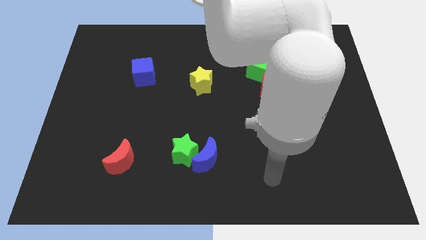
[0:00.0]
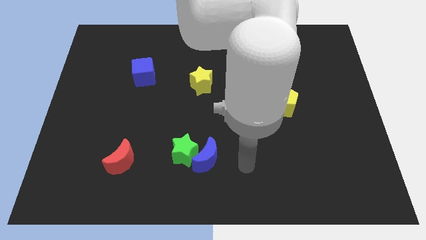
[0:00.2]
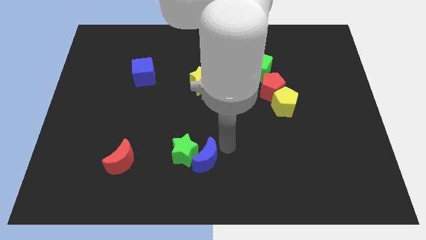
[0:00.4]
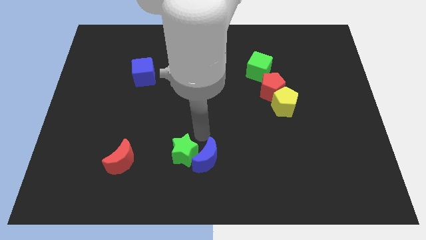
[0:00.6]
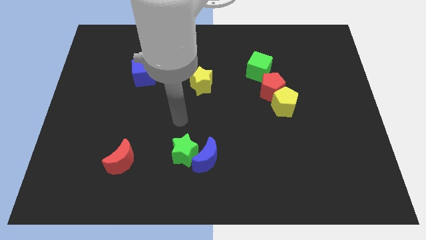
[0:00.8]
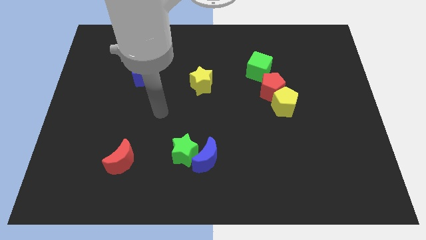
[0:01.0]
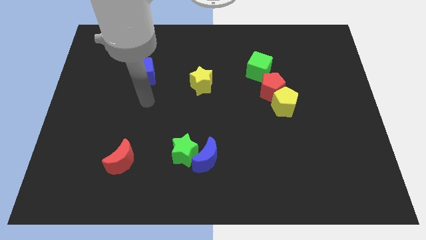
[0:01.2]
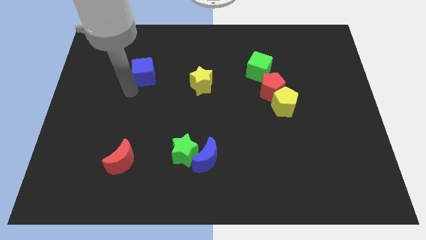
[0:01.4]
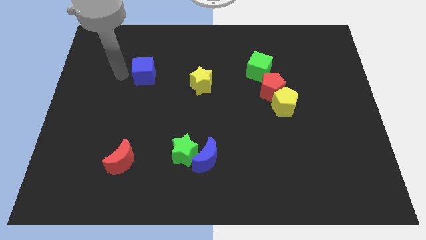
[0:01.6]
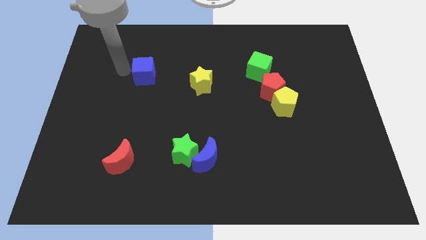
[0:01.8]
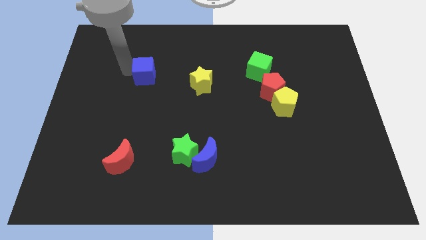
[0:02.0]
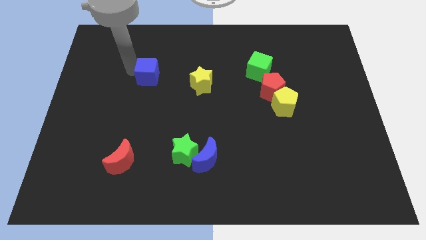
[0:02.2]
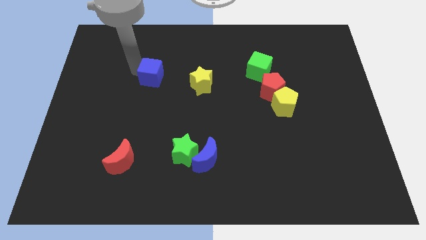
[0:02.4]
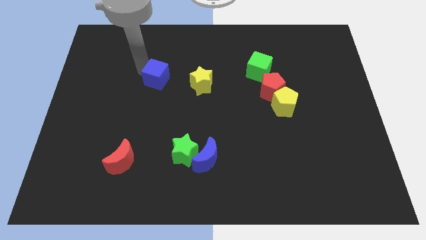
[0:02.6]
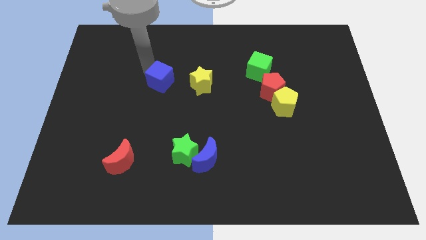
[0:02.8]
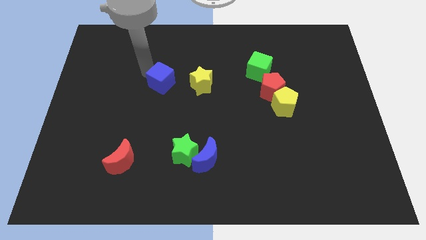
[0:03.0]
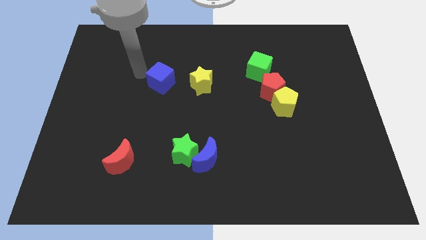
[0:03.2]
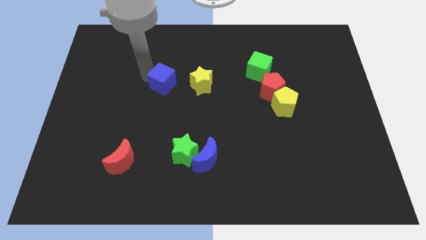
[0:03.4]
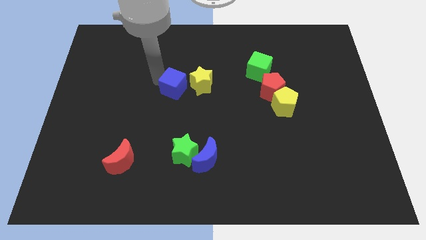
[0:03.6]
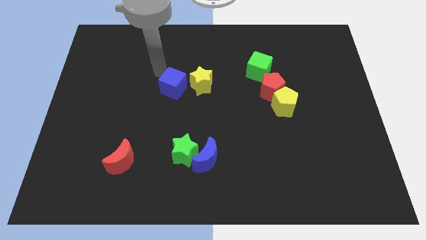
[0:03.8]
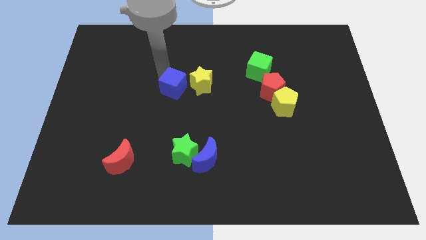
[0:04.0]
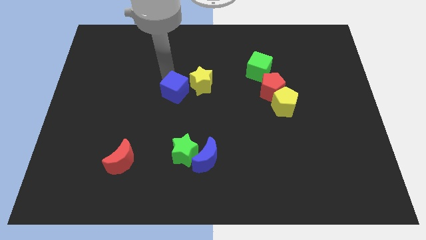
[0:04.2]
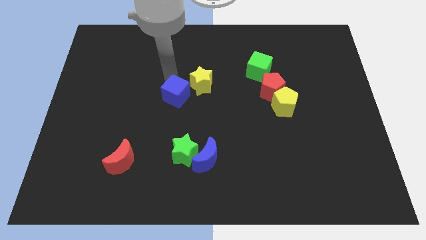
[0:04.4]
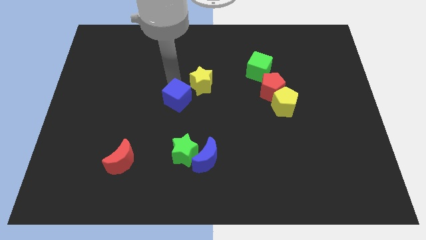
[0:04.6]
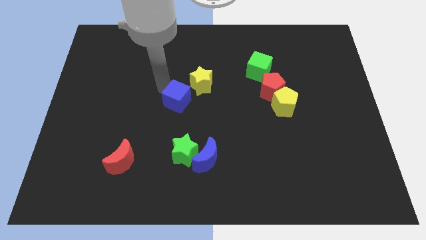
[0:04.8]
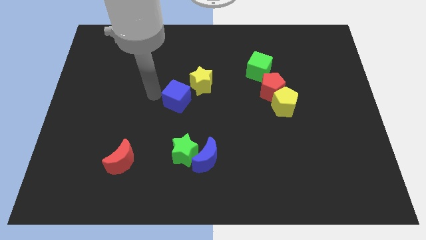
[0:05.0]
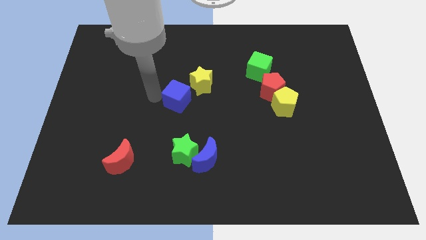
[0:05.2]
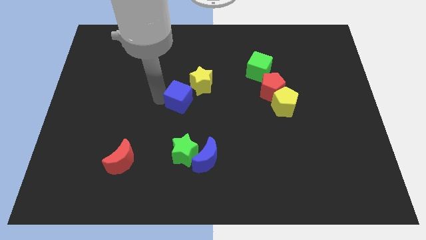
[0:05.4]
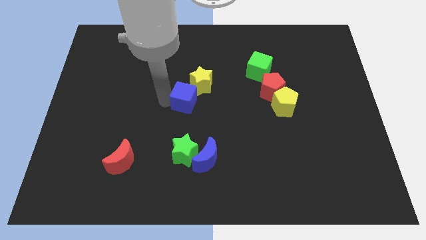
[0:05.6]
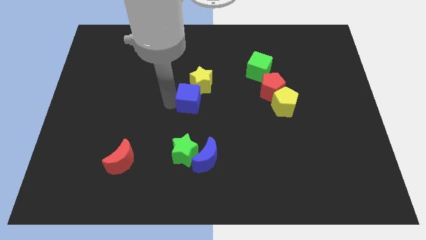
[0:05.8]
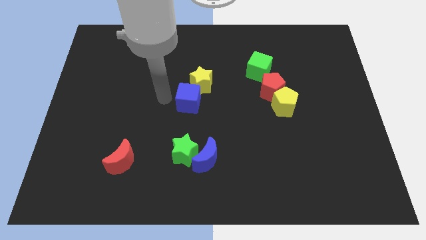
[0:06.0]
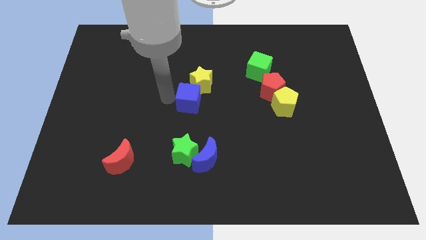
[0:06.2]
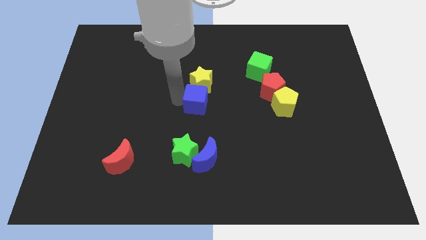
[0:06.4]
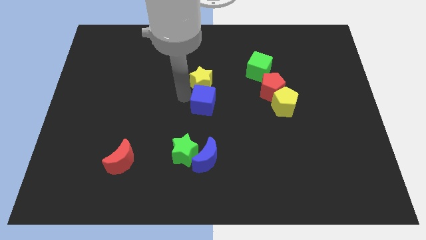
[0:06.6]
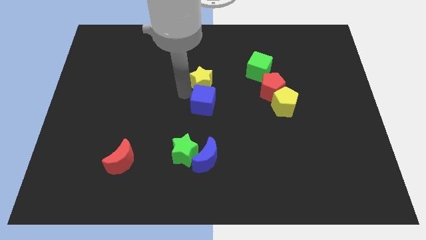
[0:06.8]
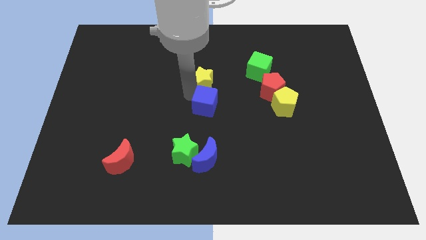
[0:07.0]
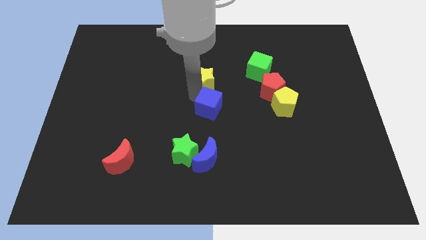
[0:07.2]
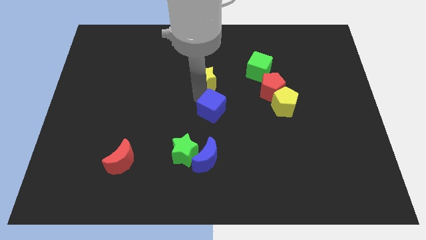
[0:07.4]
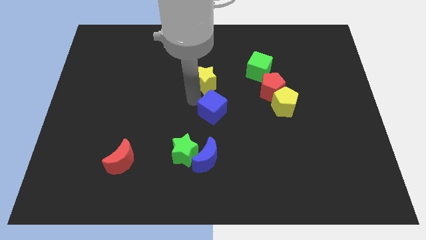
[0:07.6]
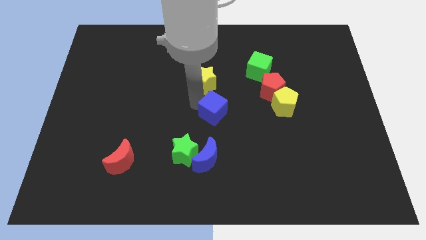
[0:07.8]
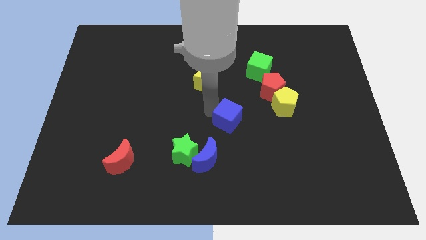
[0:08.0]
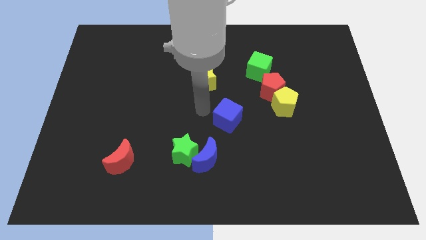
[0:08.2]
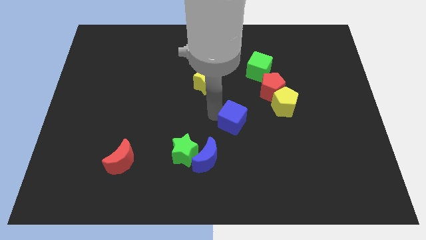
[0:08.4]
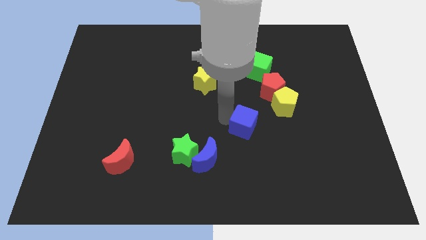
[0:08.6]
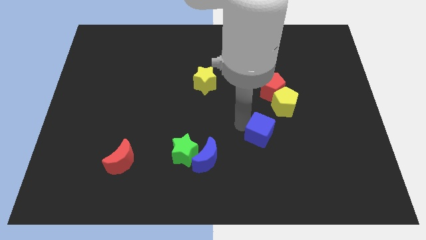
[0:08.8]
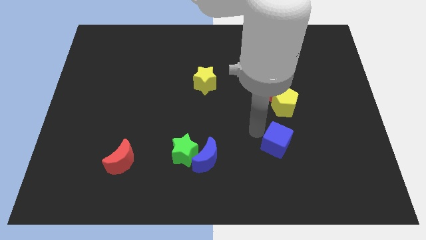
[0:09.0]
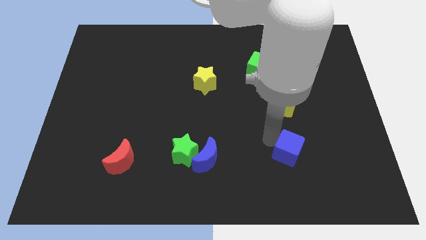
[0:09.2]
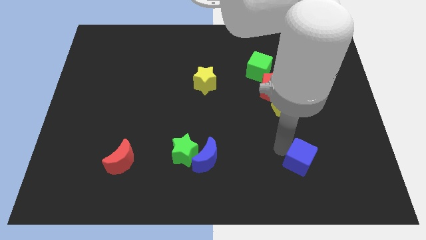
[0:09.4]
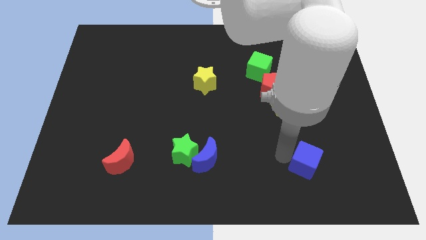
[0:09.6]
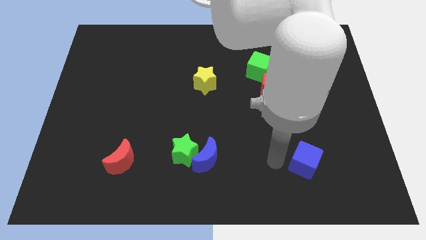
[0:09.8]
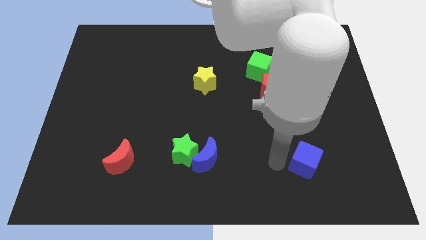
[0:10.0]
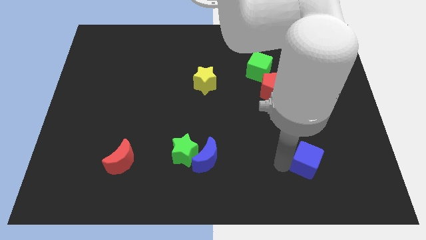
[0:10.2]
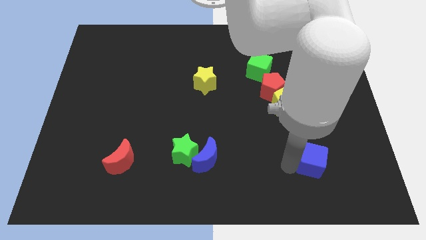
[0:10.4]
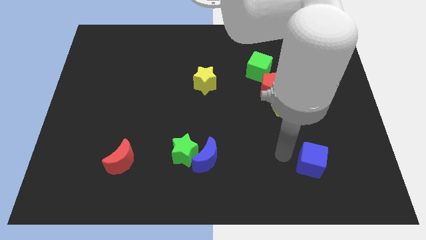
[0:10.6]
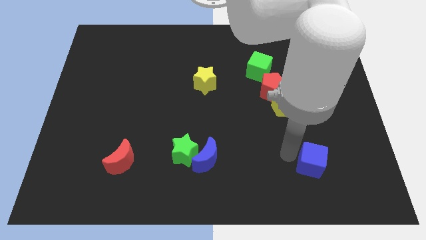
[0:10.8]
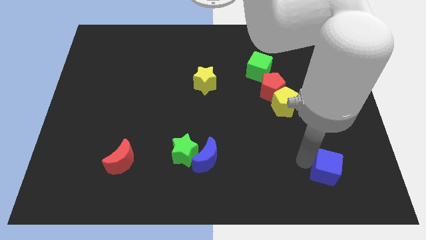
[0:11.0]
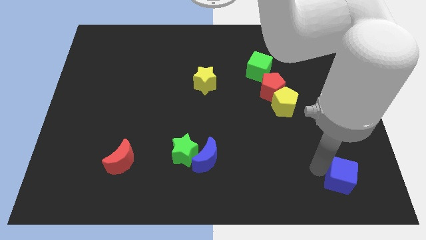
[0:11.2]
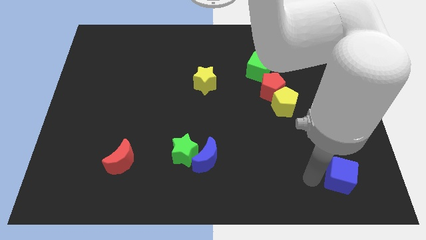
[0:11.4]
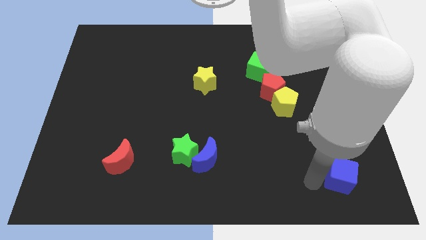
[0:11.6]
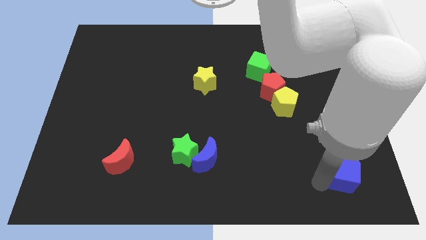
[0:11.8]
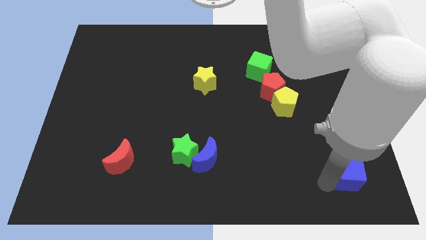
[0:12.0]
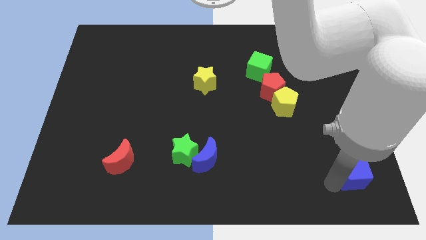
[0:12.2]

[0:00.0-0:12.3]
push the blue cube to the bottom right
